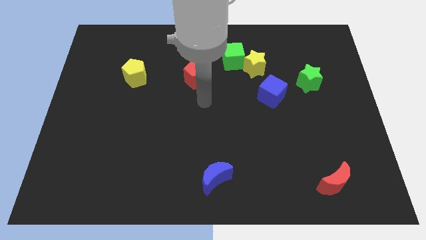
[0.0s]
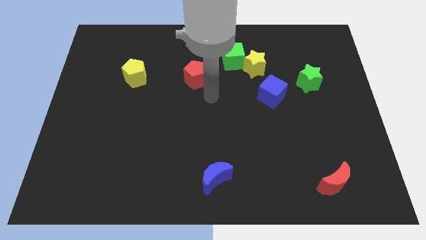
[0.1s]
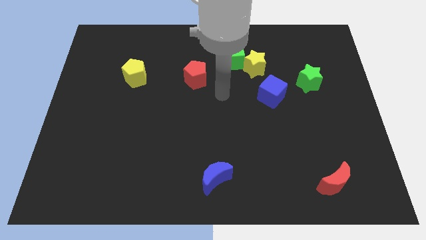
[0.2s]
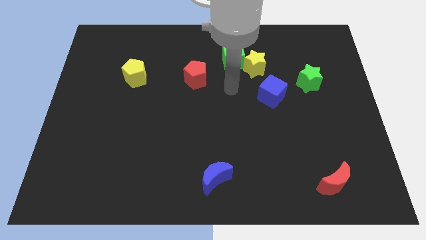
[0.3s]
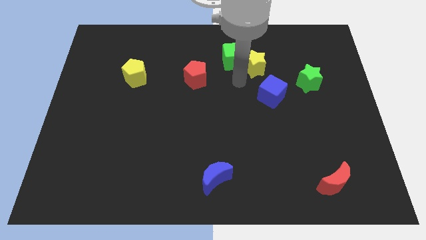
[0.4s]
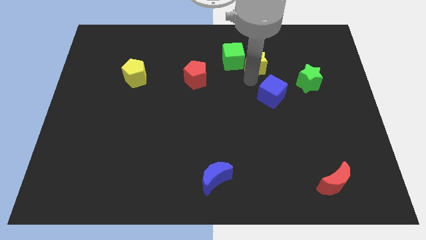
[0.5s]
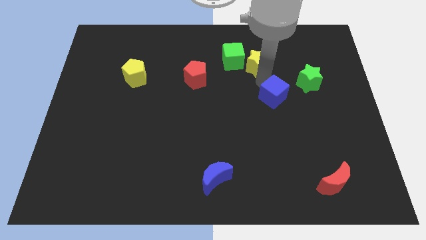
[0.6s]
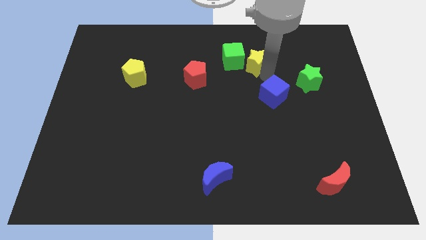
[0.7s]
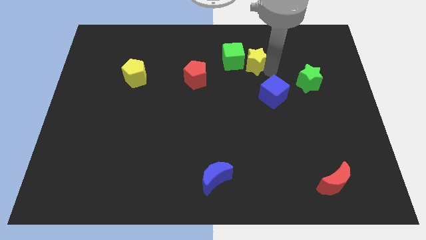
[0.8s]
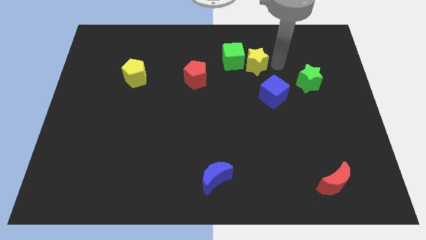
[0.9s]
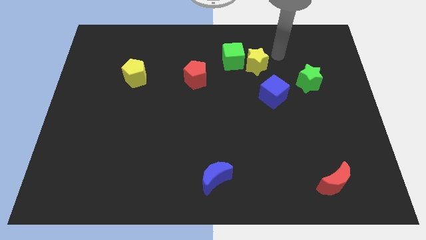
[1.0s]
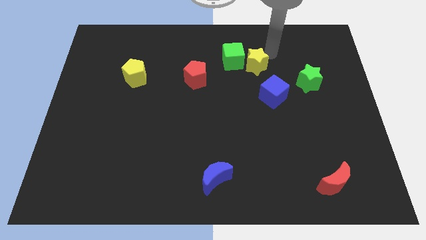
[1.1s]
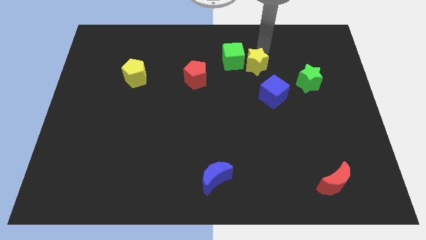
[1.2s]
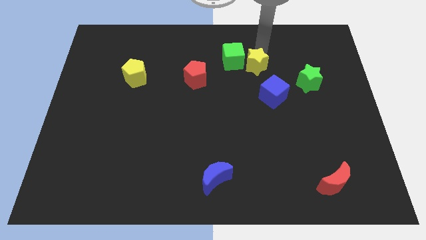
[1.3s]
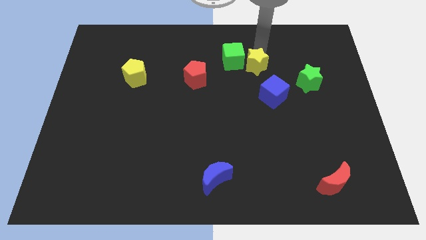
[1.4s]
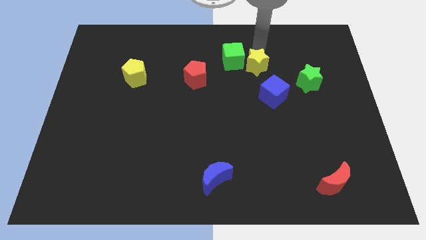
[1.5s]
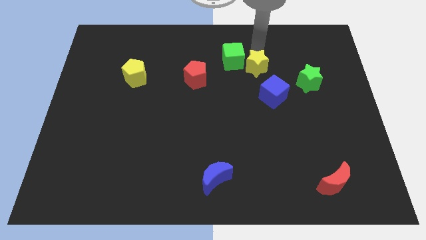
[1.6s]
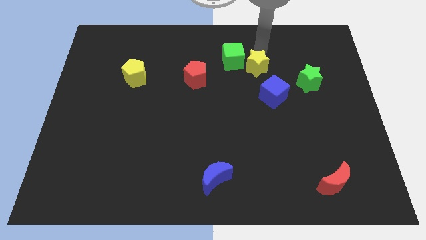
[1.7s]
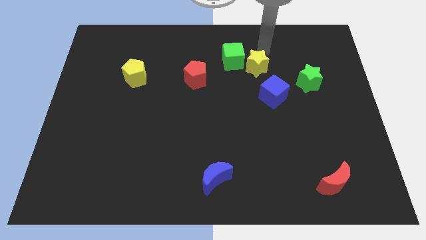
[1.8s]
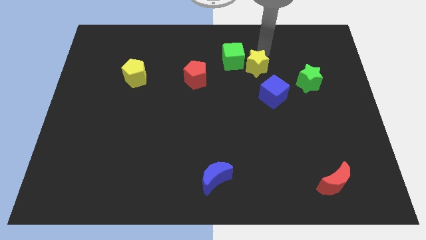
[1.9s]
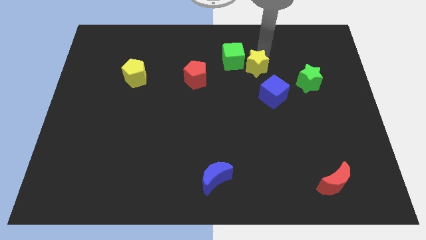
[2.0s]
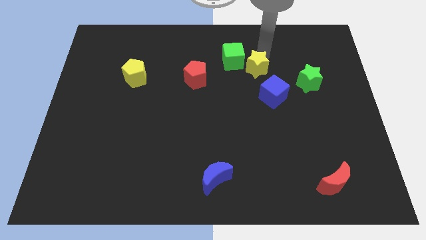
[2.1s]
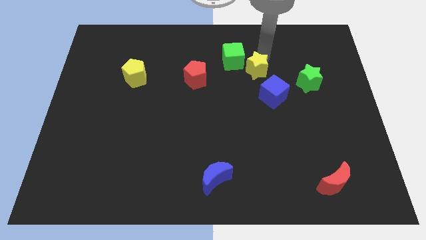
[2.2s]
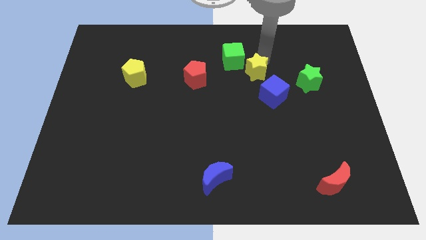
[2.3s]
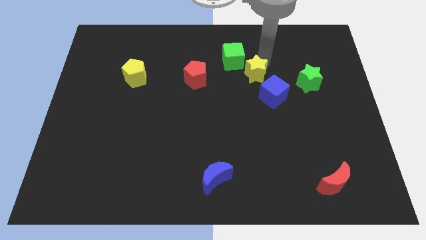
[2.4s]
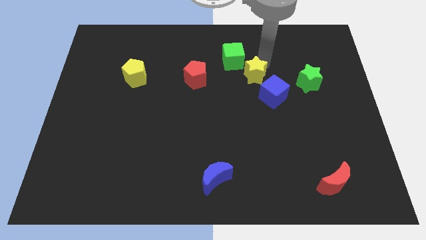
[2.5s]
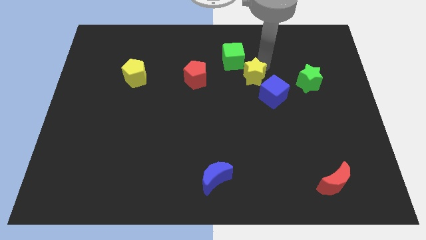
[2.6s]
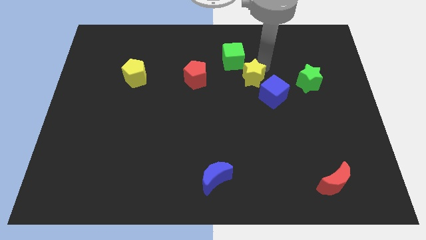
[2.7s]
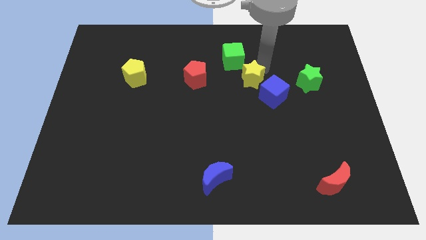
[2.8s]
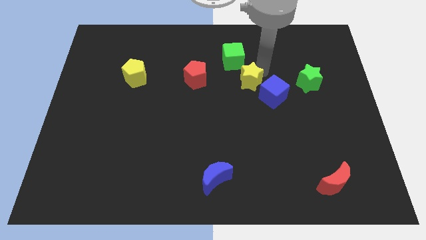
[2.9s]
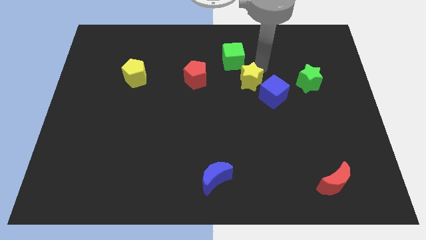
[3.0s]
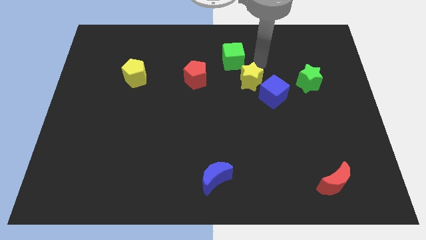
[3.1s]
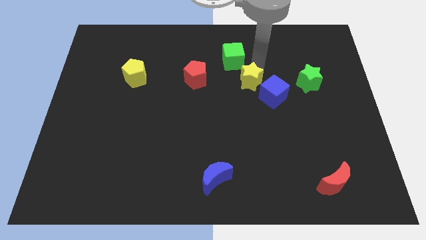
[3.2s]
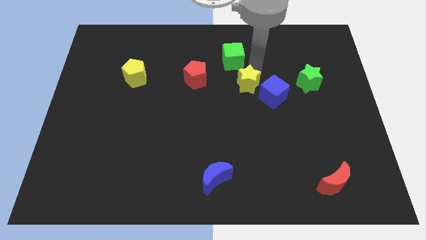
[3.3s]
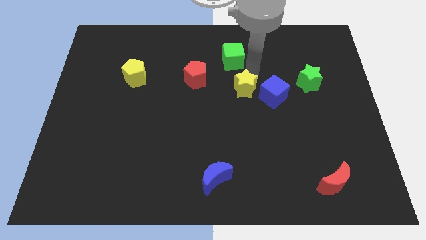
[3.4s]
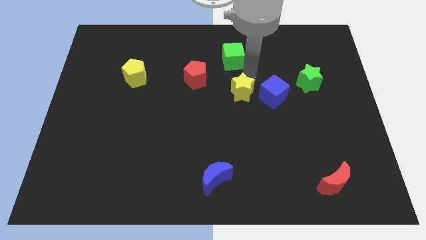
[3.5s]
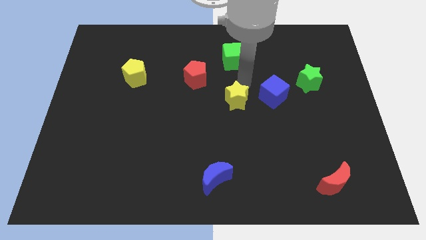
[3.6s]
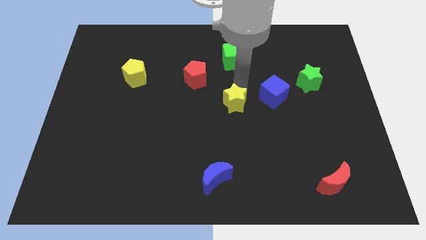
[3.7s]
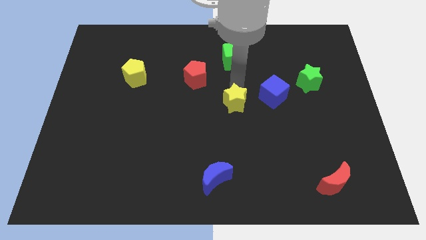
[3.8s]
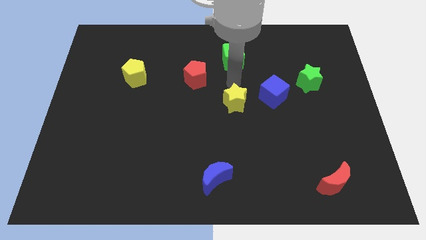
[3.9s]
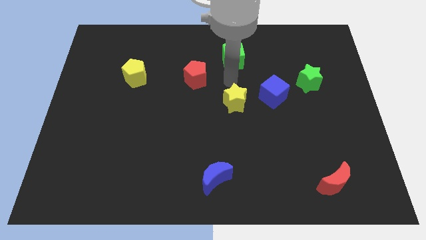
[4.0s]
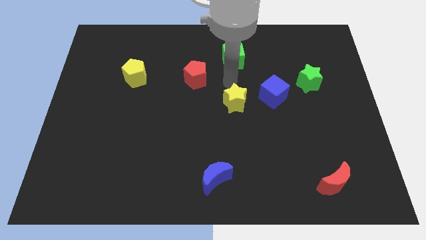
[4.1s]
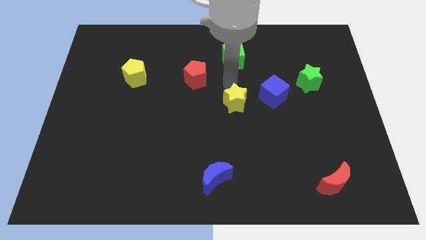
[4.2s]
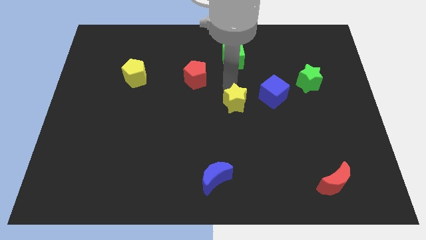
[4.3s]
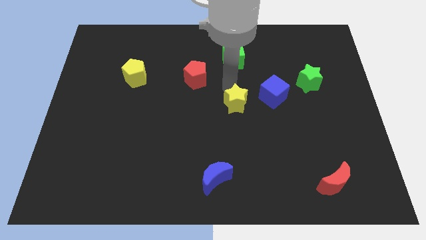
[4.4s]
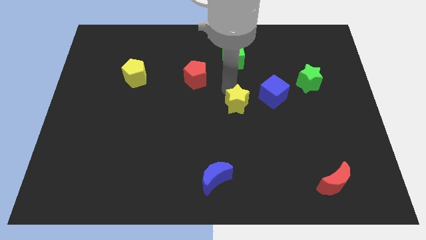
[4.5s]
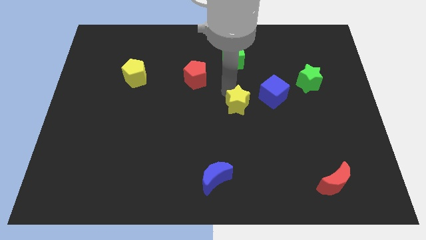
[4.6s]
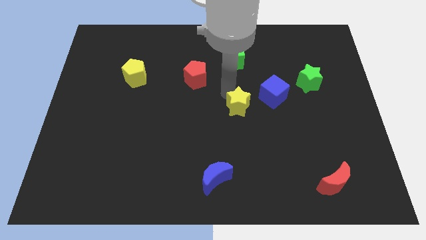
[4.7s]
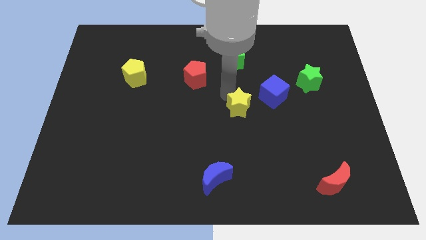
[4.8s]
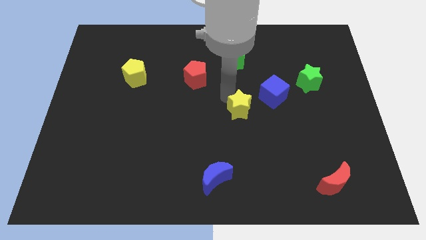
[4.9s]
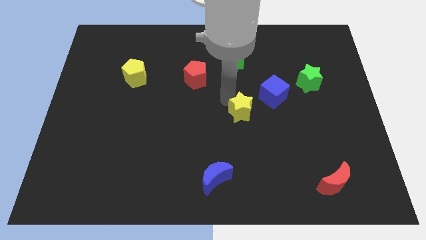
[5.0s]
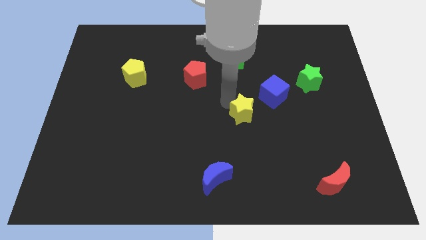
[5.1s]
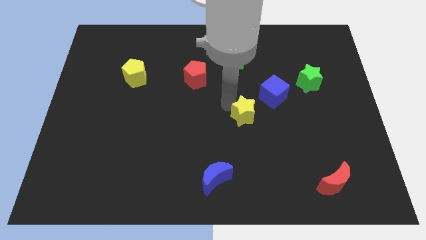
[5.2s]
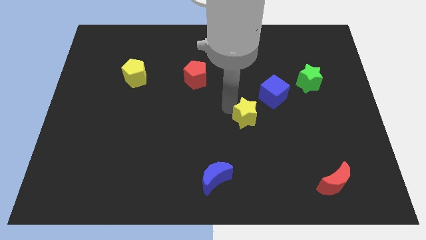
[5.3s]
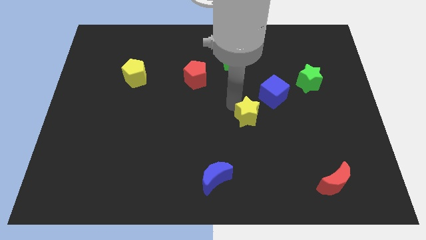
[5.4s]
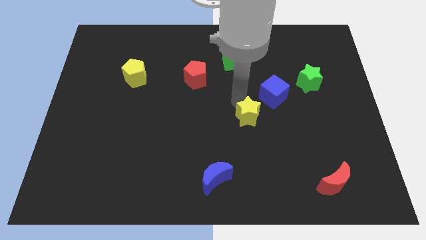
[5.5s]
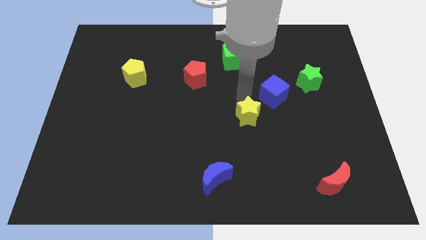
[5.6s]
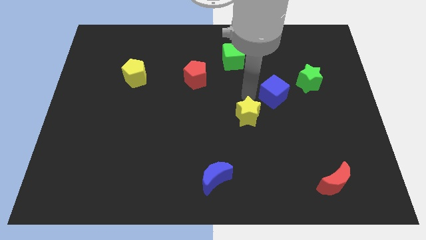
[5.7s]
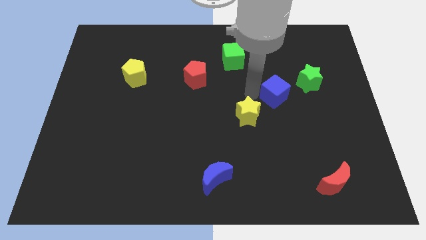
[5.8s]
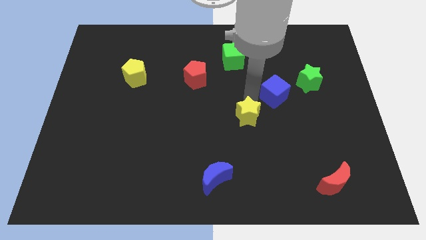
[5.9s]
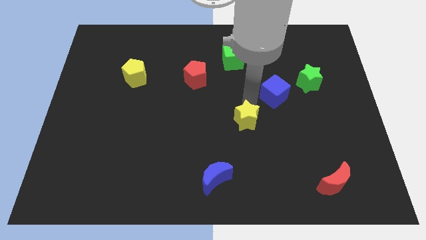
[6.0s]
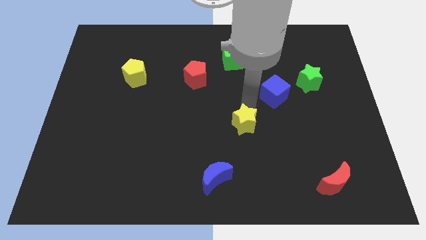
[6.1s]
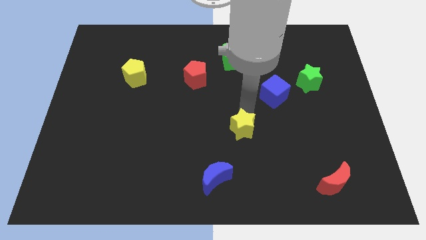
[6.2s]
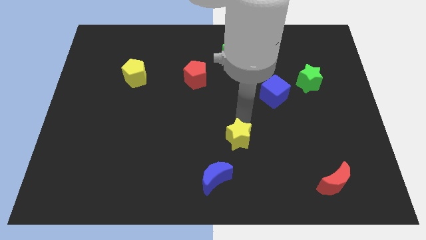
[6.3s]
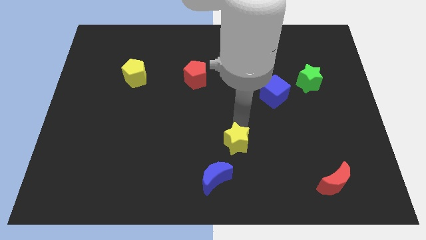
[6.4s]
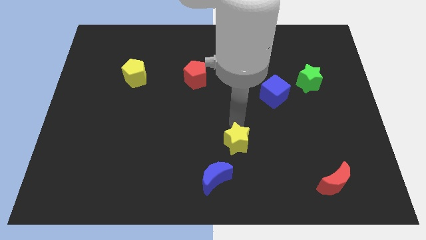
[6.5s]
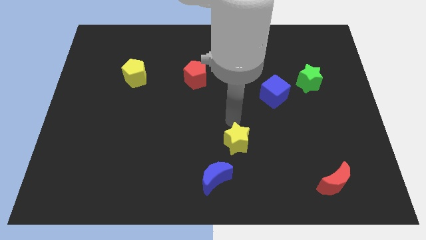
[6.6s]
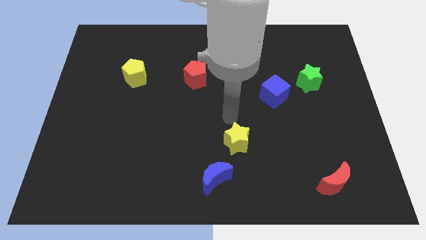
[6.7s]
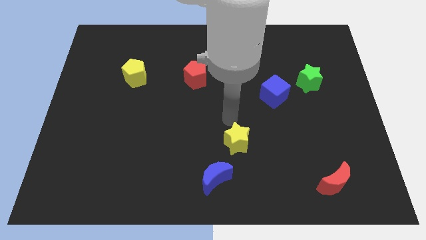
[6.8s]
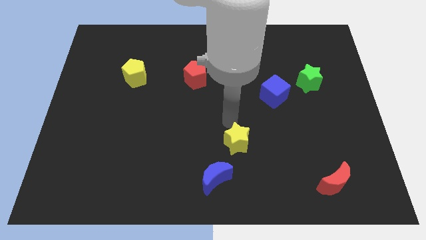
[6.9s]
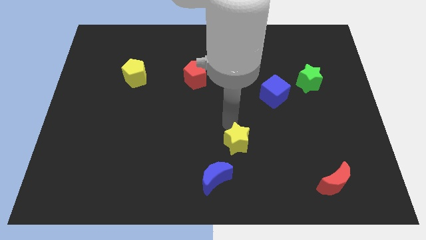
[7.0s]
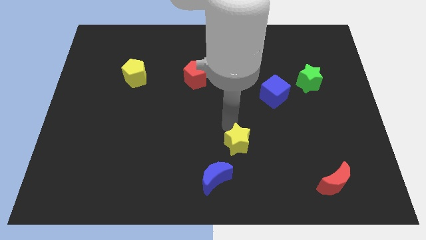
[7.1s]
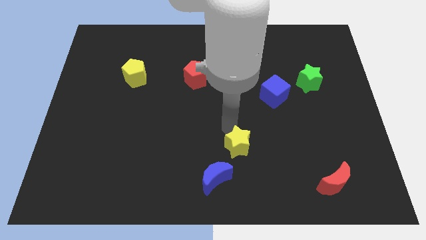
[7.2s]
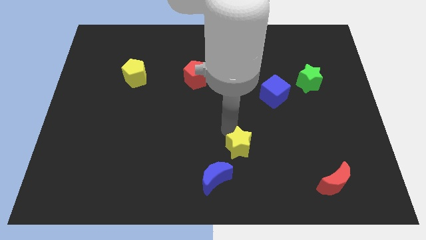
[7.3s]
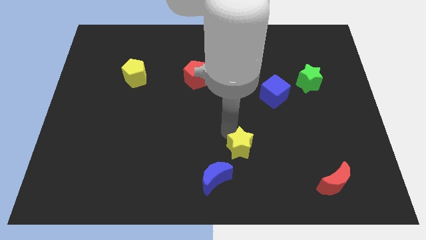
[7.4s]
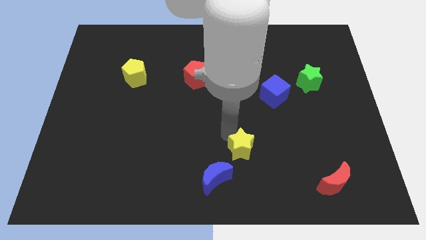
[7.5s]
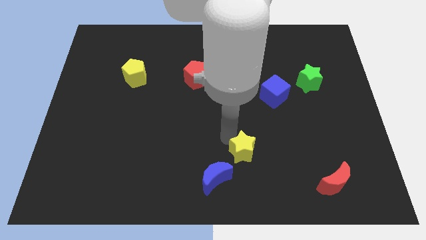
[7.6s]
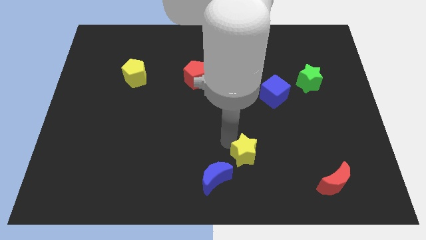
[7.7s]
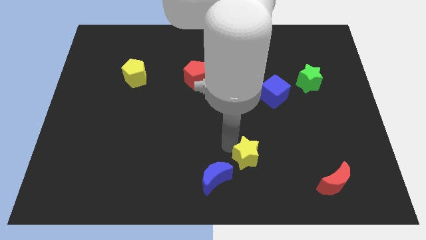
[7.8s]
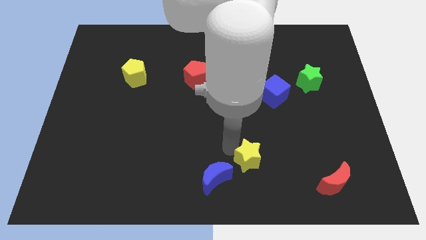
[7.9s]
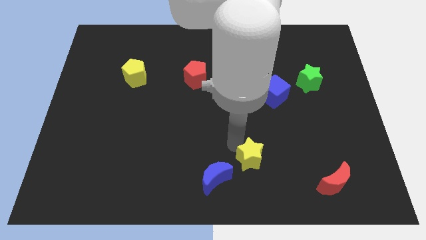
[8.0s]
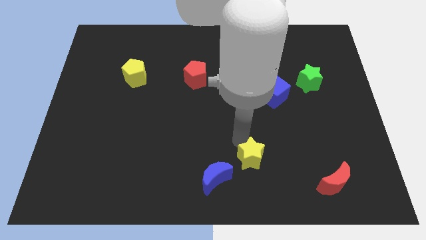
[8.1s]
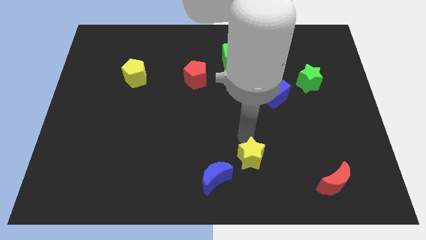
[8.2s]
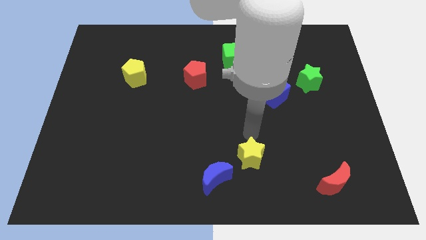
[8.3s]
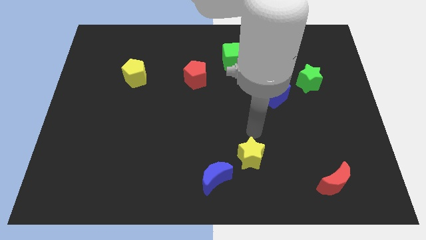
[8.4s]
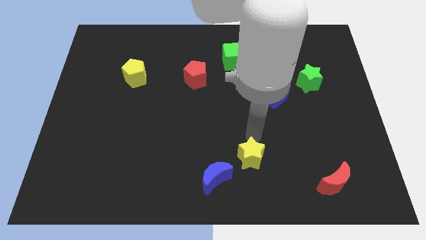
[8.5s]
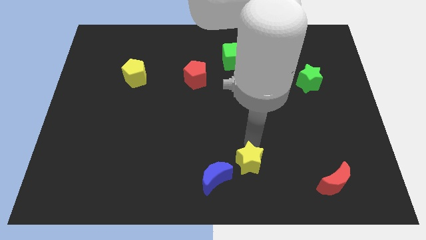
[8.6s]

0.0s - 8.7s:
push the yellow star to the bottom
